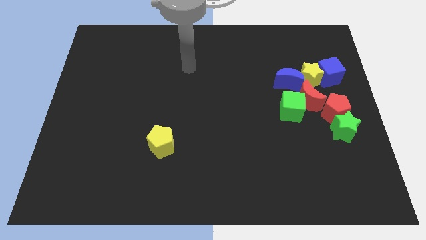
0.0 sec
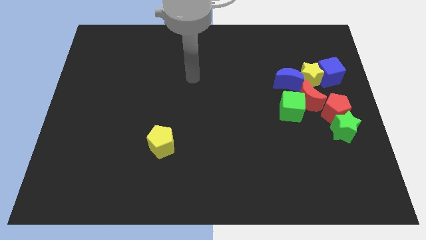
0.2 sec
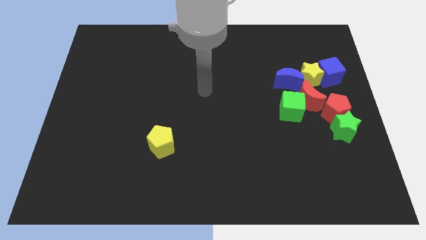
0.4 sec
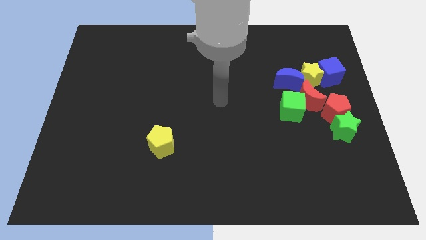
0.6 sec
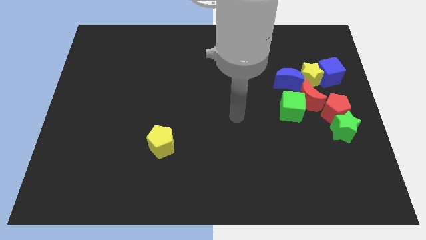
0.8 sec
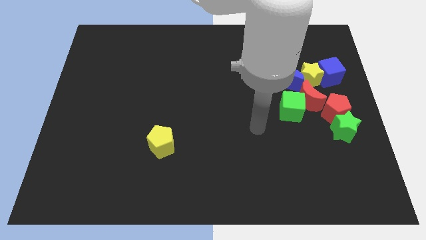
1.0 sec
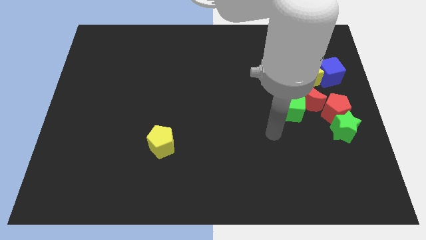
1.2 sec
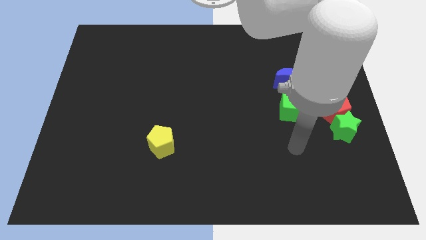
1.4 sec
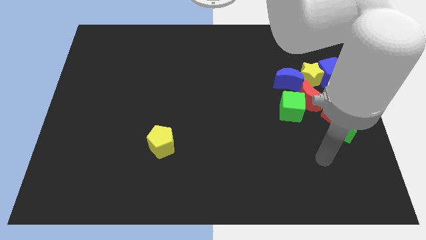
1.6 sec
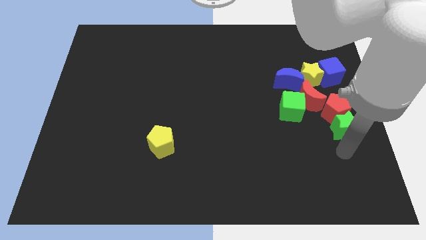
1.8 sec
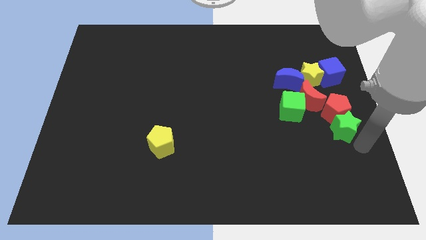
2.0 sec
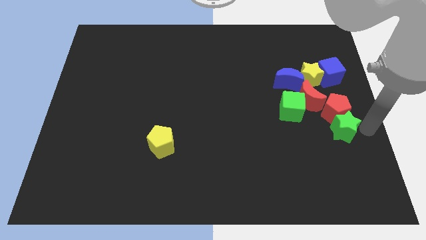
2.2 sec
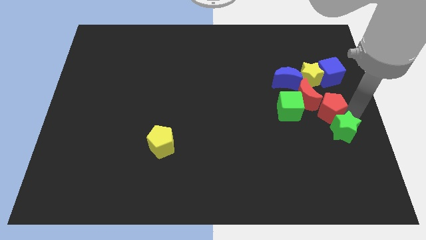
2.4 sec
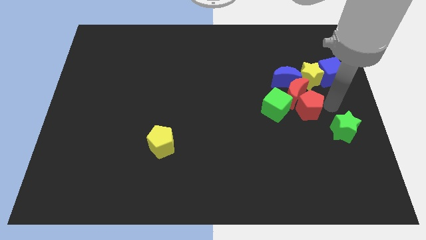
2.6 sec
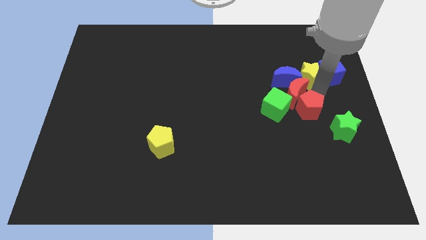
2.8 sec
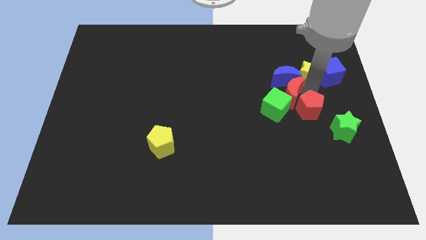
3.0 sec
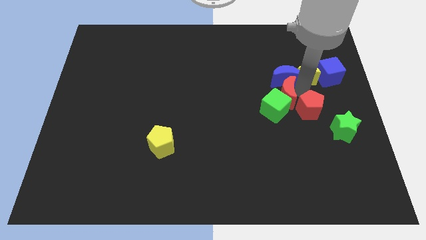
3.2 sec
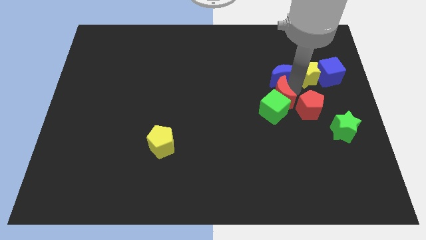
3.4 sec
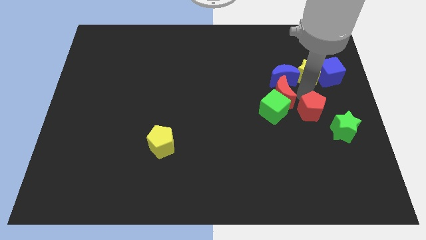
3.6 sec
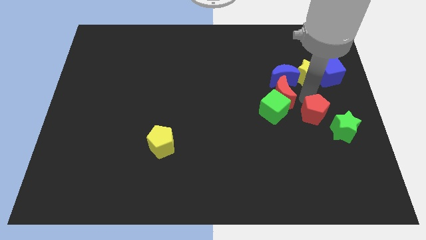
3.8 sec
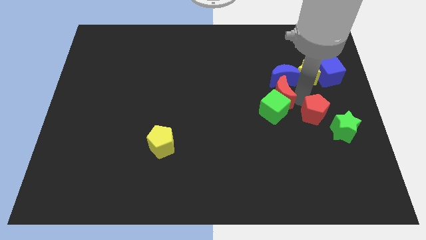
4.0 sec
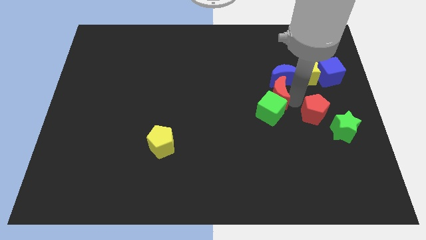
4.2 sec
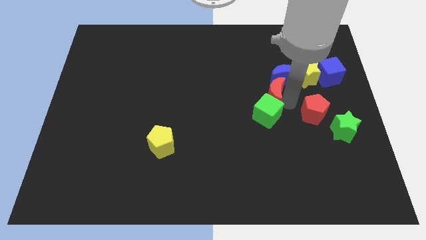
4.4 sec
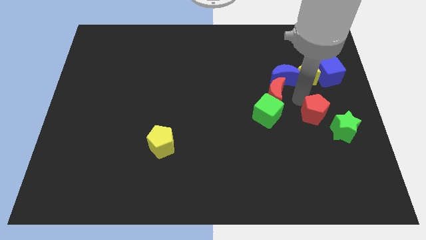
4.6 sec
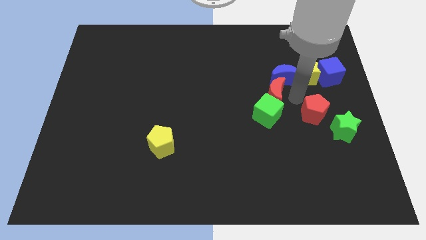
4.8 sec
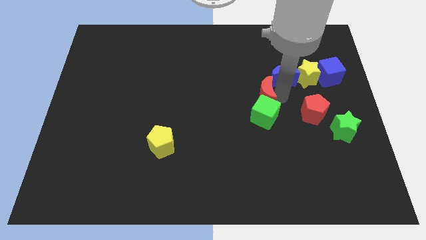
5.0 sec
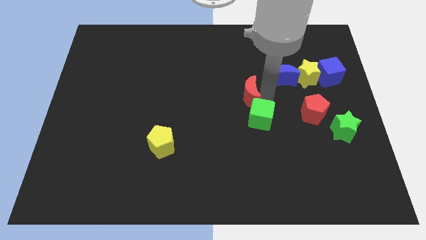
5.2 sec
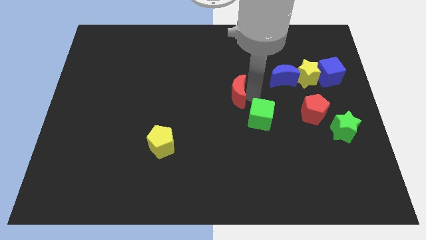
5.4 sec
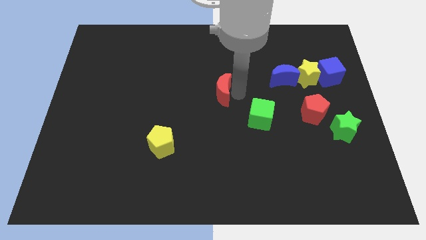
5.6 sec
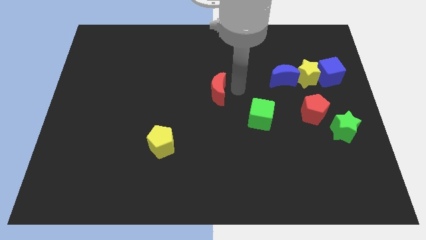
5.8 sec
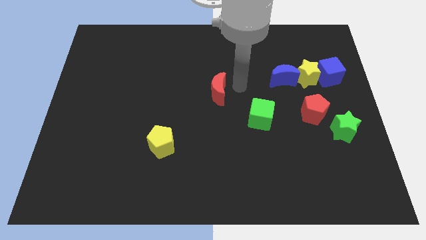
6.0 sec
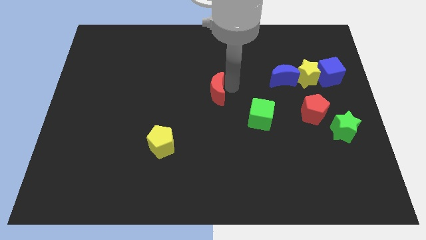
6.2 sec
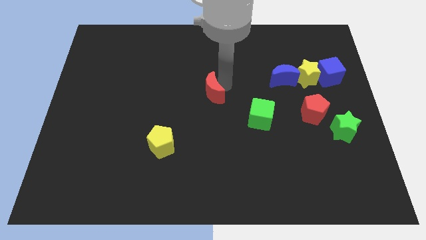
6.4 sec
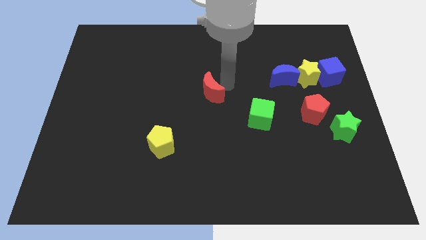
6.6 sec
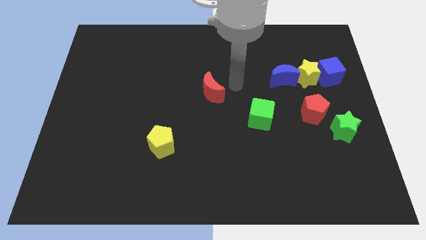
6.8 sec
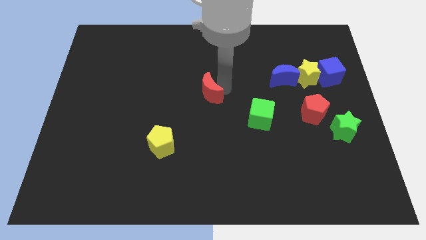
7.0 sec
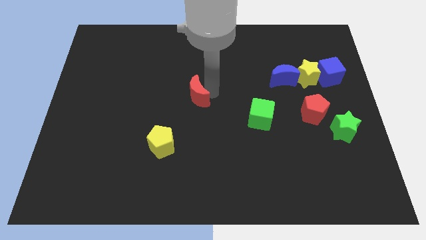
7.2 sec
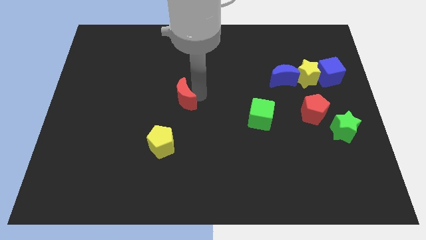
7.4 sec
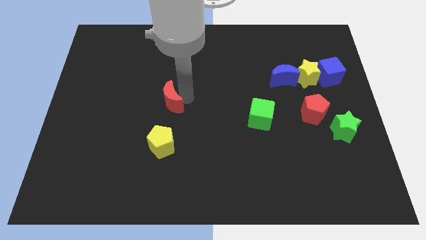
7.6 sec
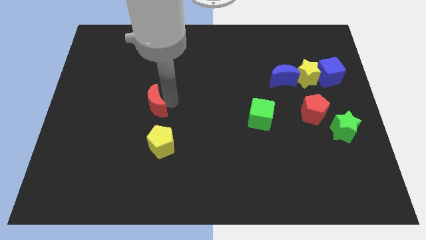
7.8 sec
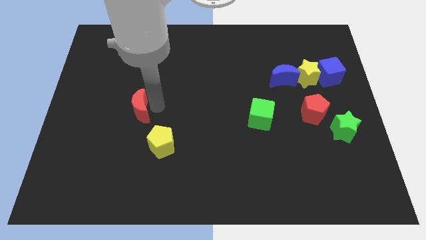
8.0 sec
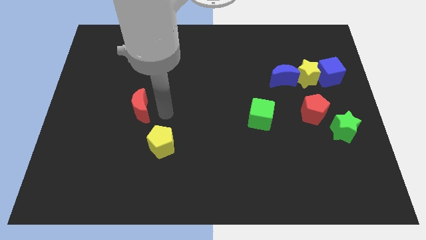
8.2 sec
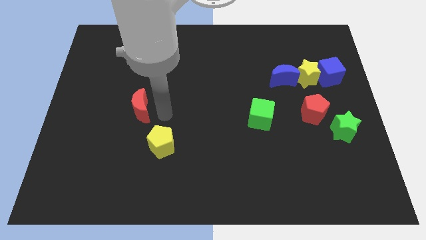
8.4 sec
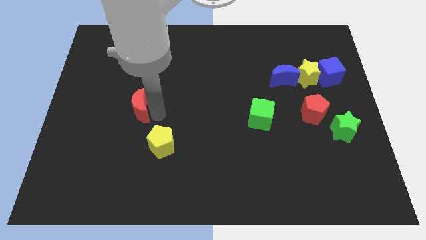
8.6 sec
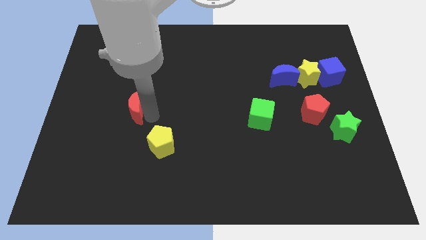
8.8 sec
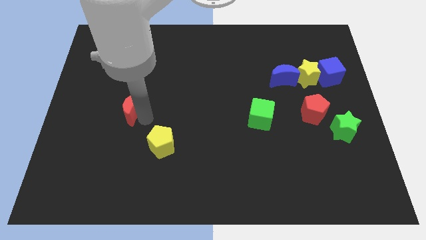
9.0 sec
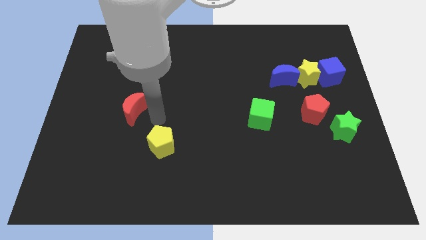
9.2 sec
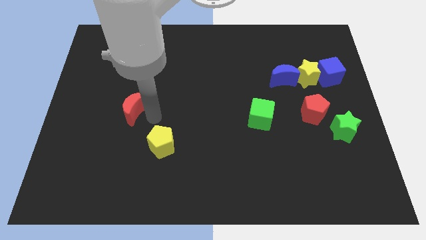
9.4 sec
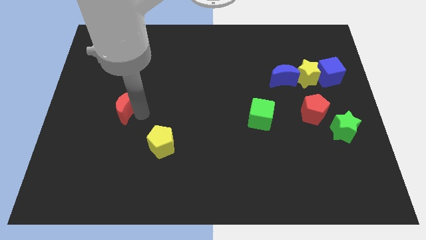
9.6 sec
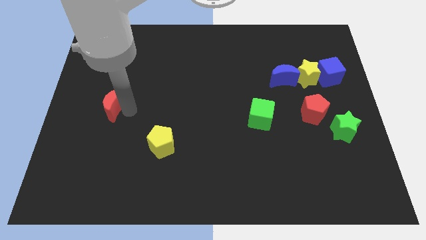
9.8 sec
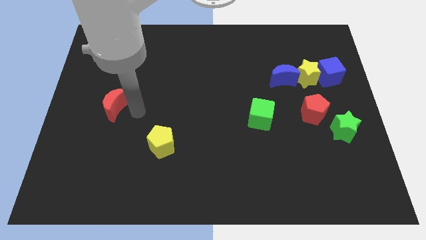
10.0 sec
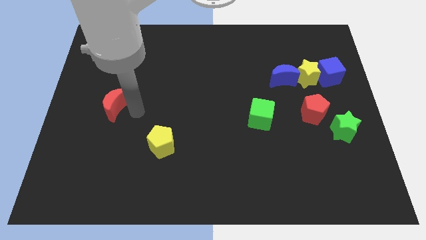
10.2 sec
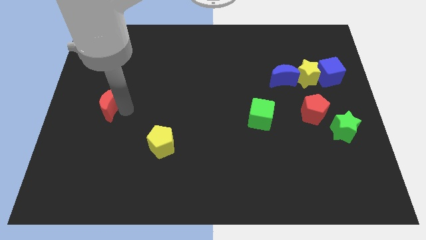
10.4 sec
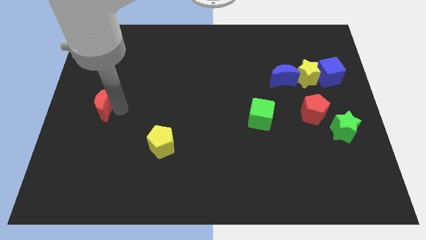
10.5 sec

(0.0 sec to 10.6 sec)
slide the red moon to the left side of the board

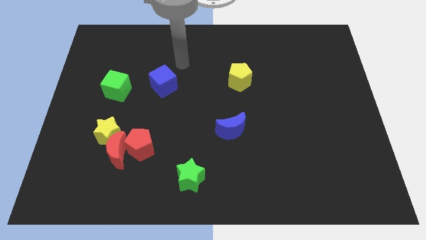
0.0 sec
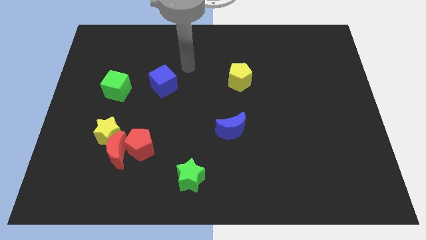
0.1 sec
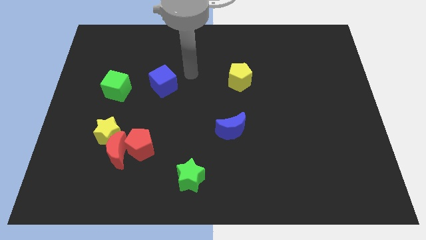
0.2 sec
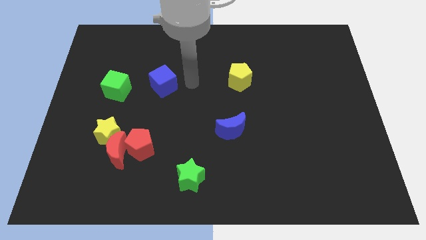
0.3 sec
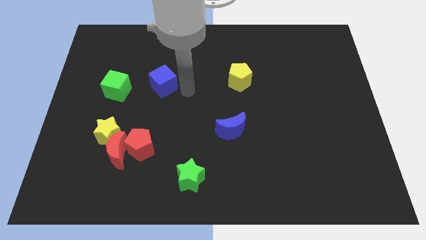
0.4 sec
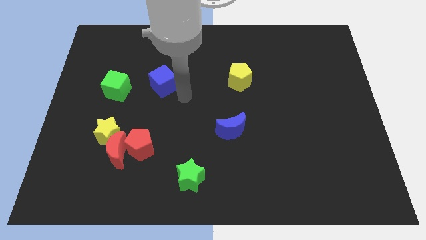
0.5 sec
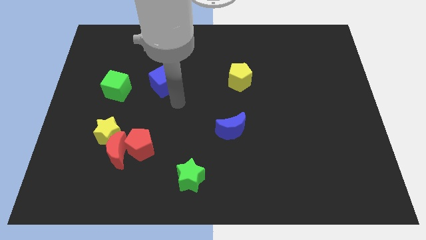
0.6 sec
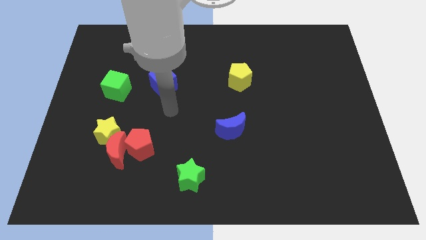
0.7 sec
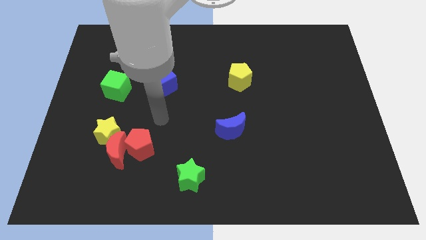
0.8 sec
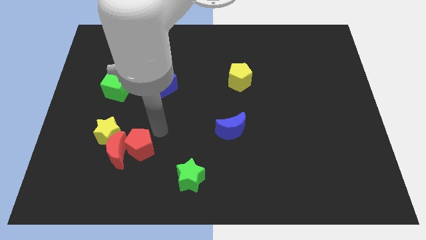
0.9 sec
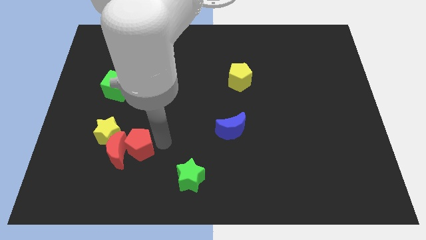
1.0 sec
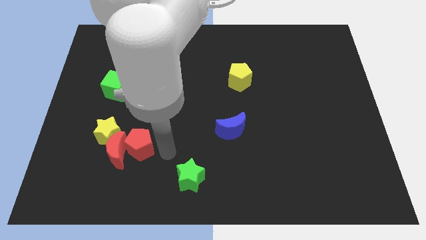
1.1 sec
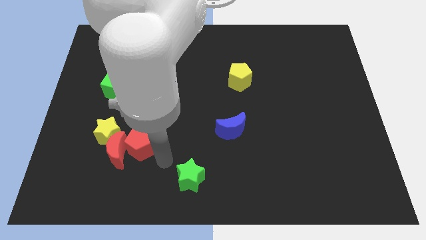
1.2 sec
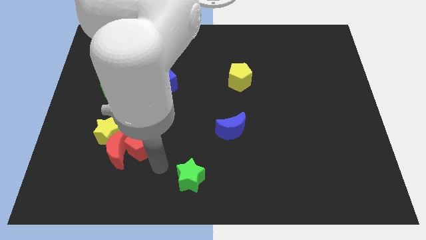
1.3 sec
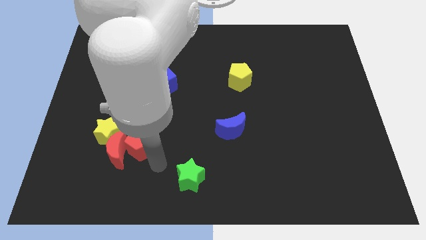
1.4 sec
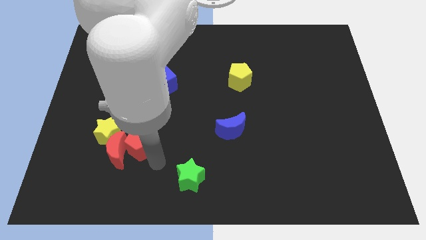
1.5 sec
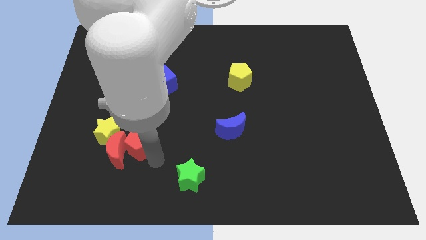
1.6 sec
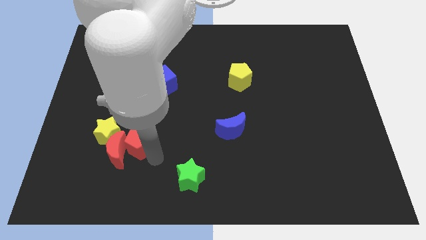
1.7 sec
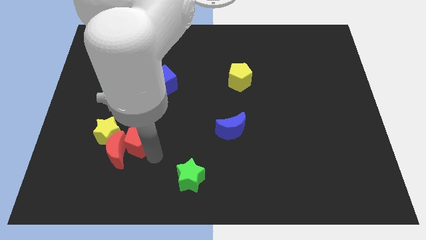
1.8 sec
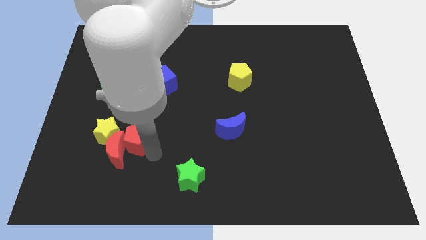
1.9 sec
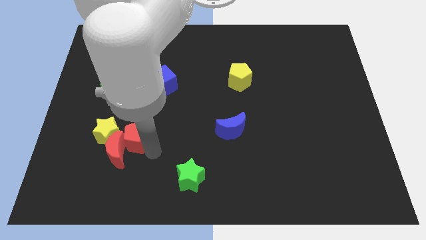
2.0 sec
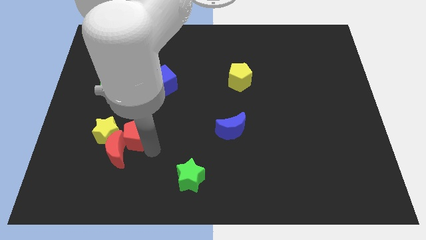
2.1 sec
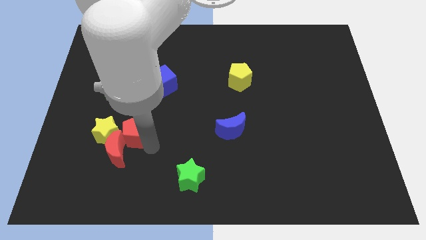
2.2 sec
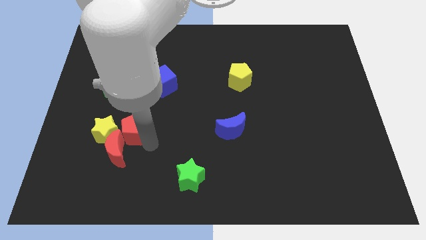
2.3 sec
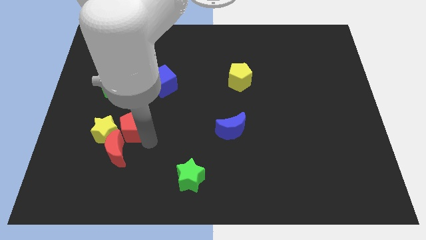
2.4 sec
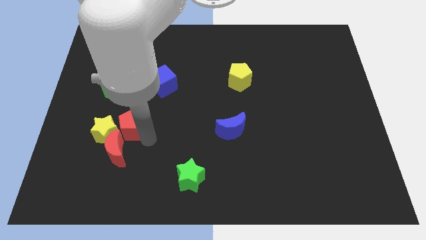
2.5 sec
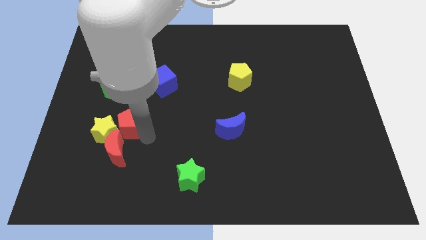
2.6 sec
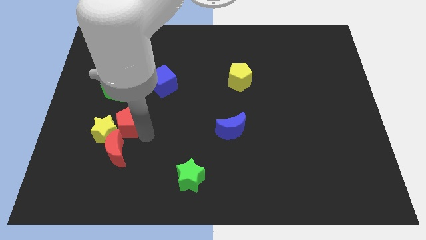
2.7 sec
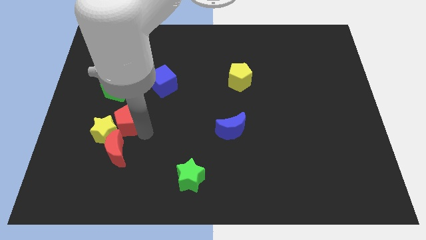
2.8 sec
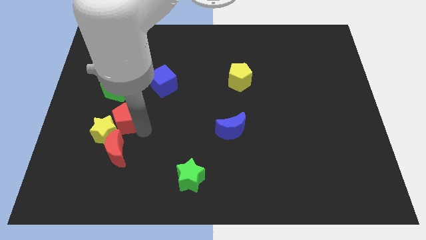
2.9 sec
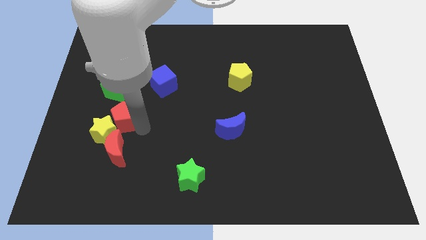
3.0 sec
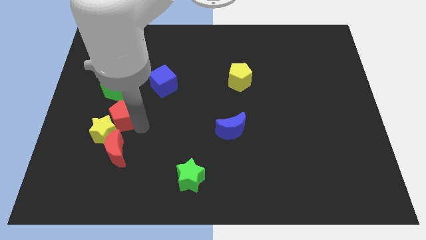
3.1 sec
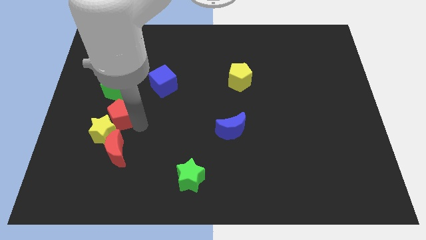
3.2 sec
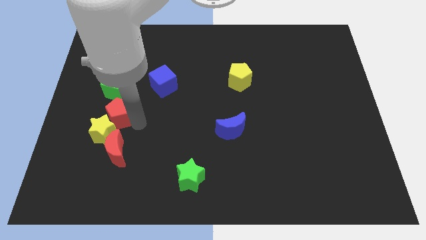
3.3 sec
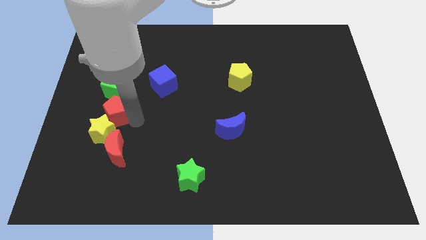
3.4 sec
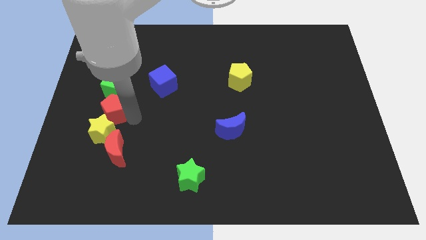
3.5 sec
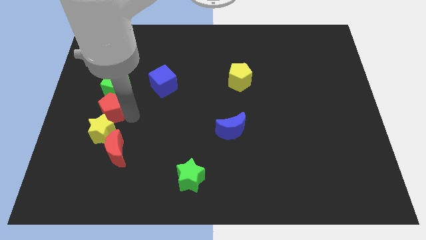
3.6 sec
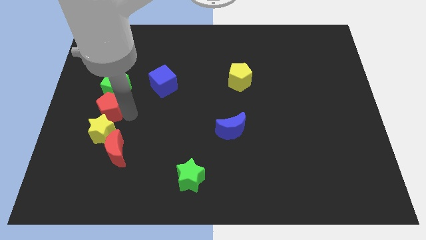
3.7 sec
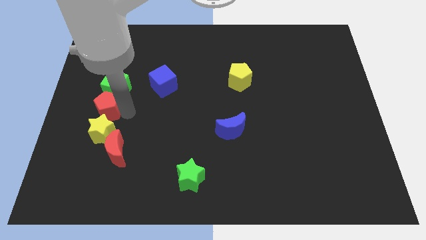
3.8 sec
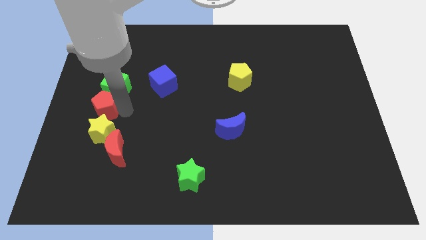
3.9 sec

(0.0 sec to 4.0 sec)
push the red pentagon to the center left
